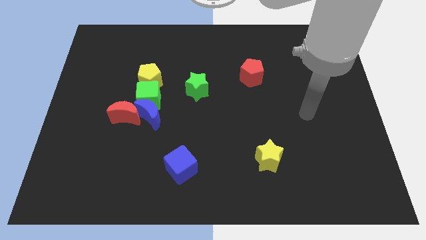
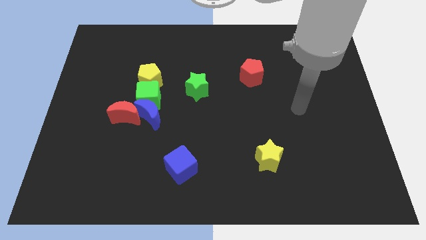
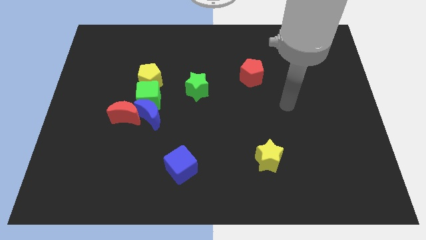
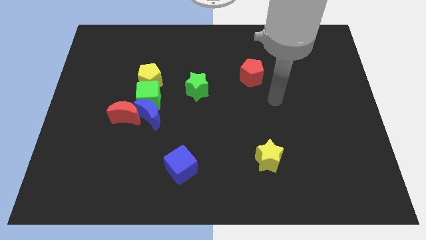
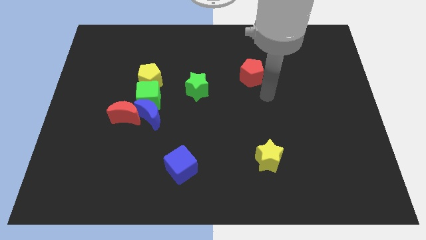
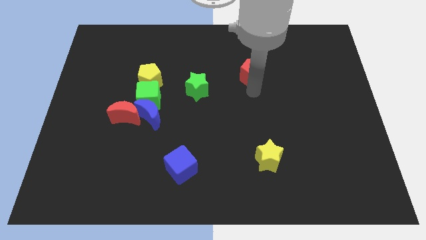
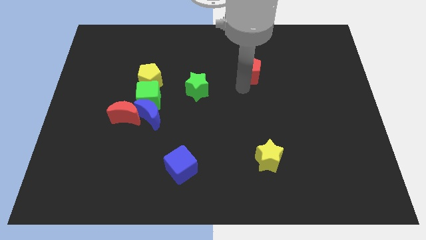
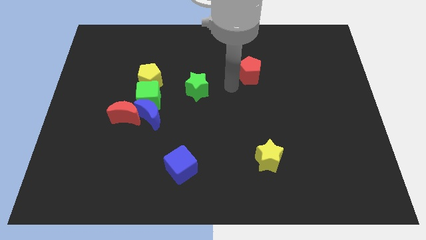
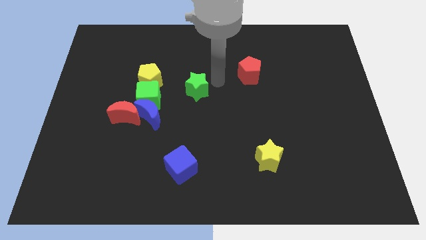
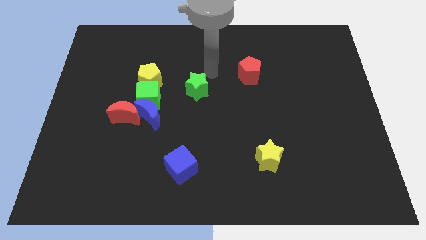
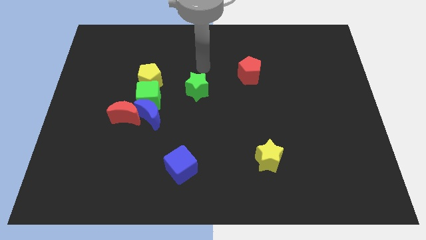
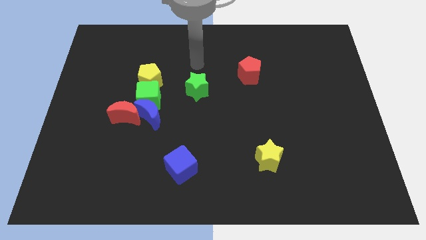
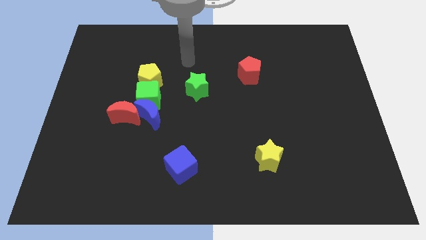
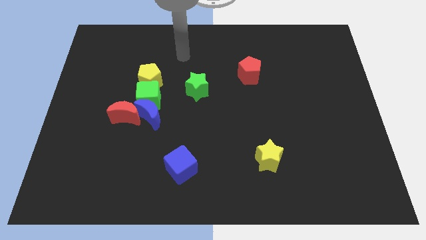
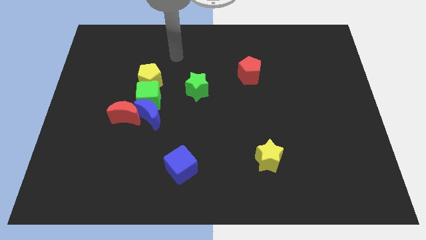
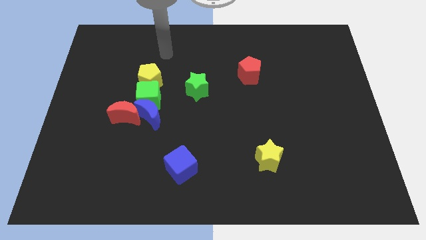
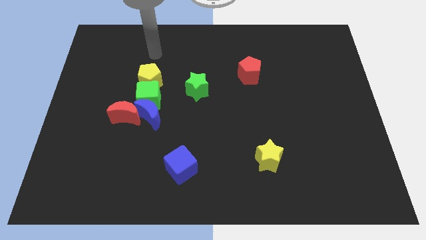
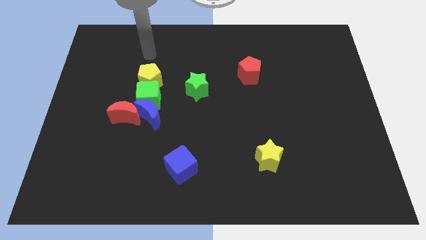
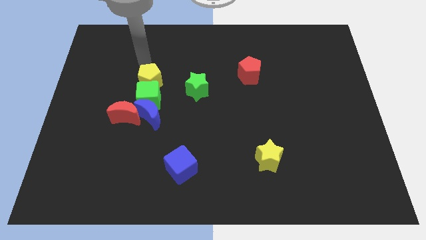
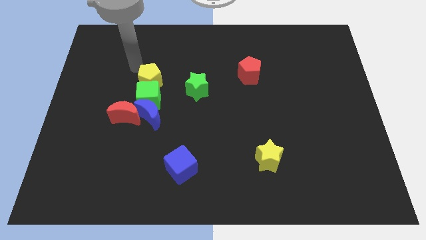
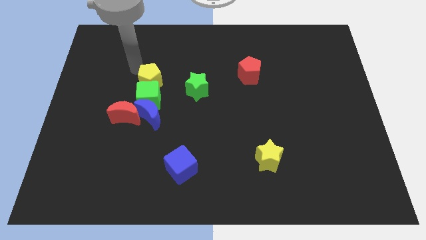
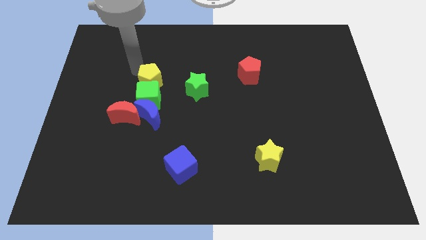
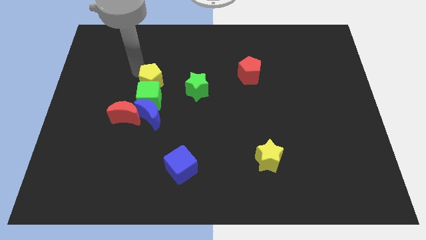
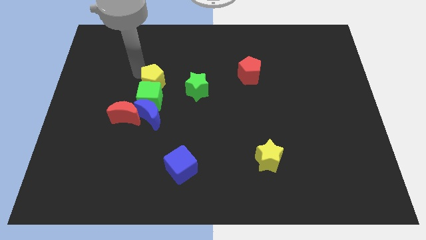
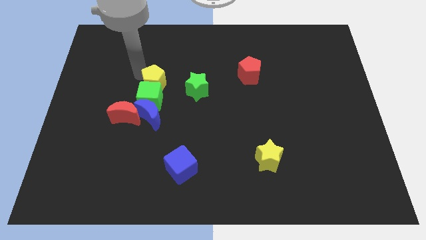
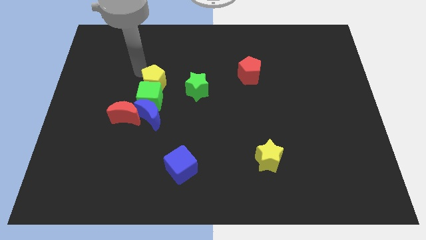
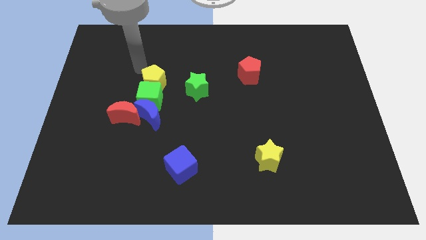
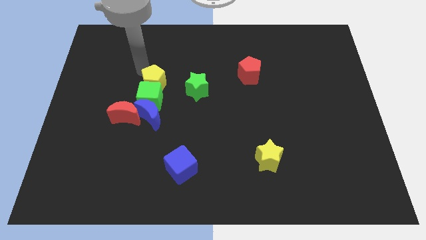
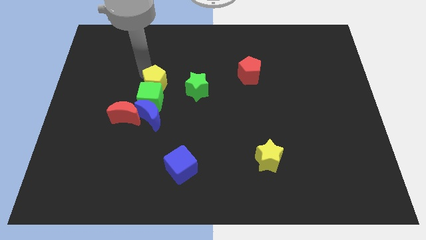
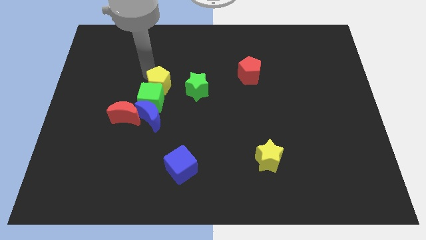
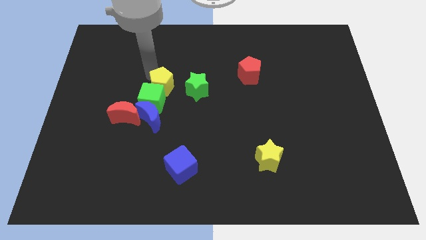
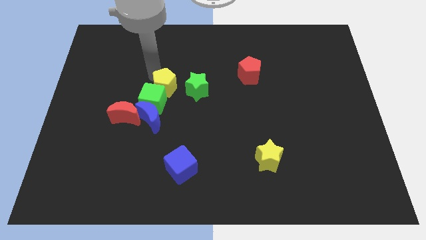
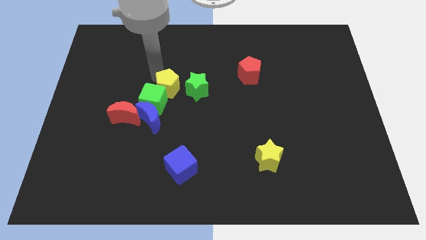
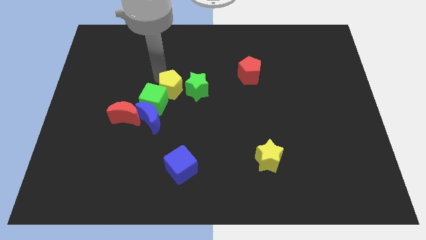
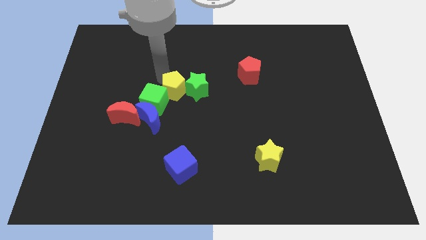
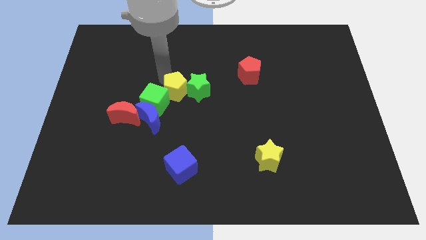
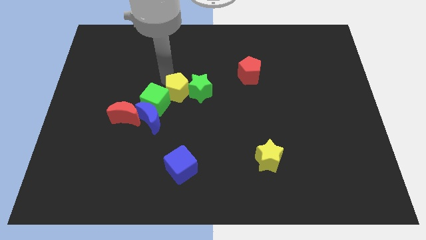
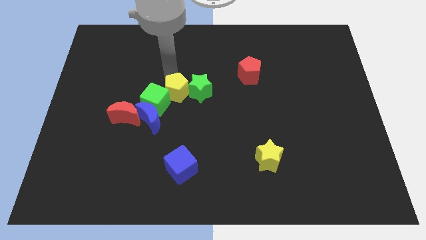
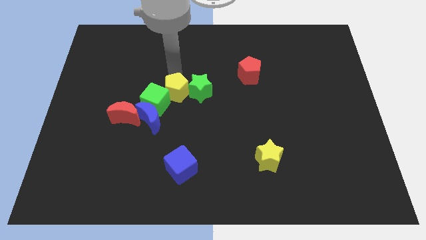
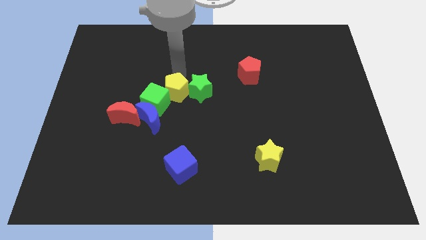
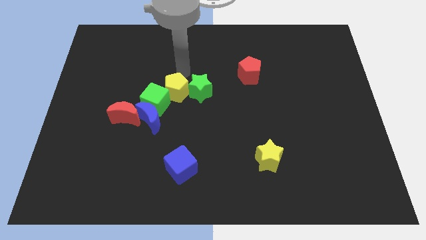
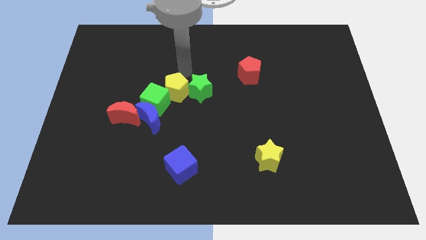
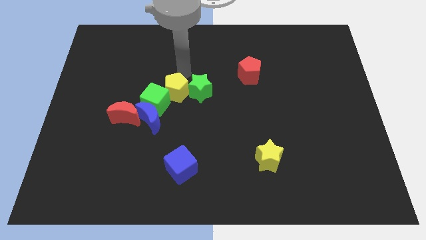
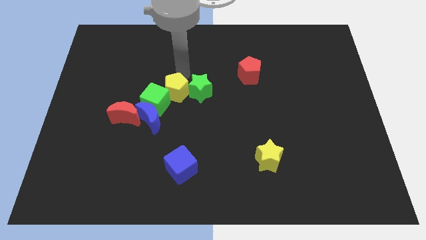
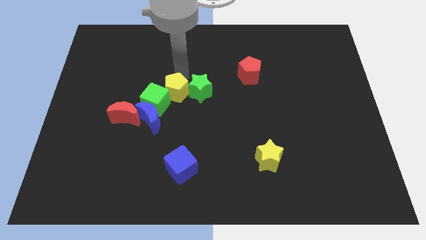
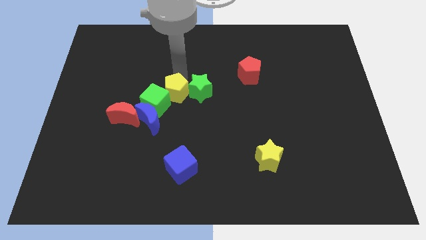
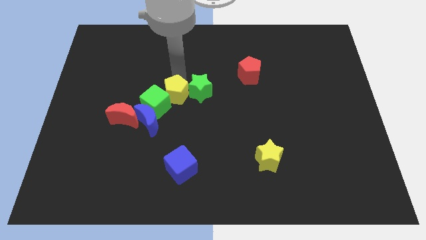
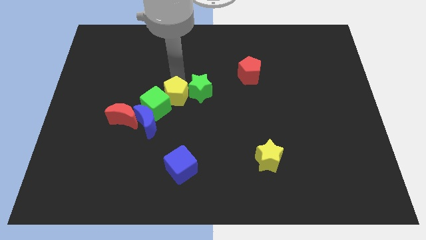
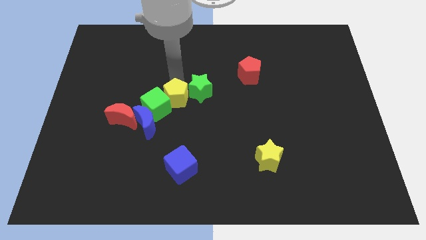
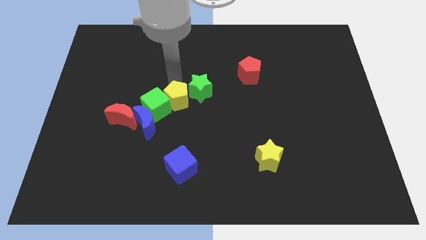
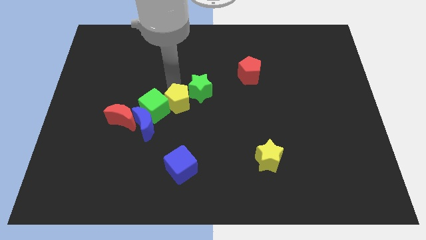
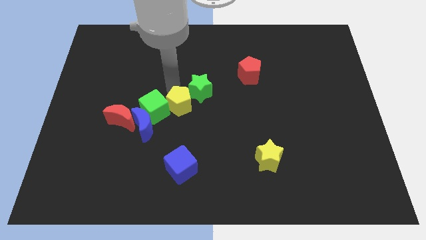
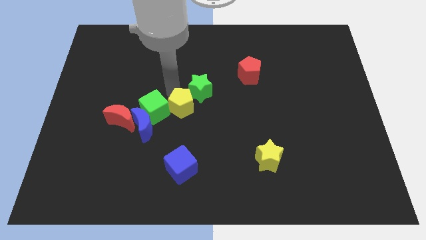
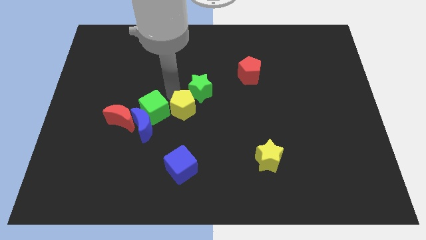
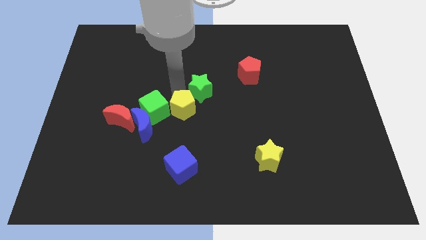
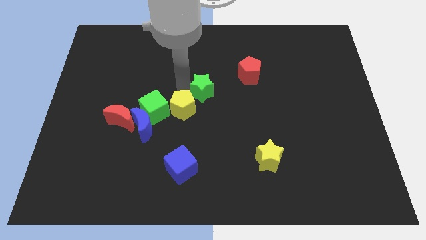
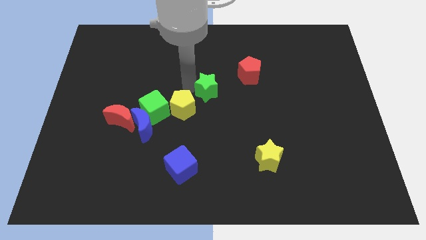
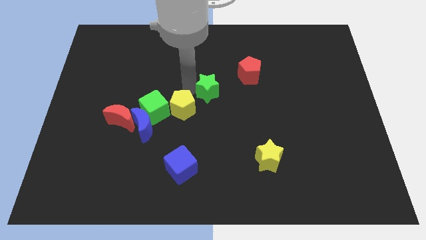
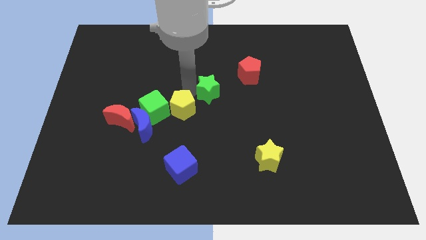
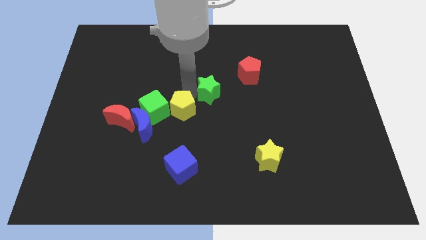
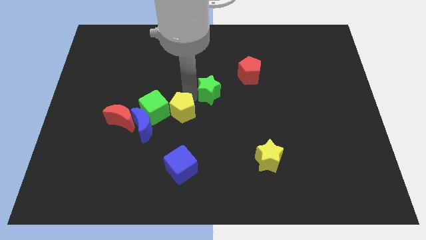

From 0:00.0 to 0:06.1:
move the yellow pentagon to the bottom right side of the green cube
